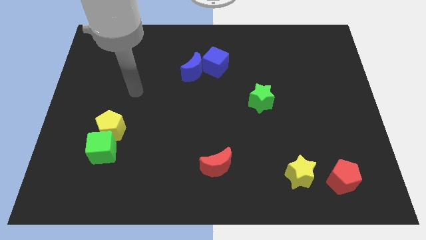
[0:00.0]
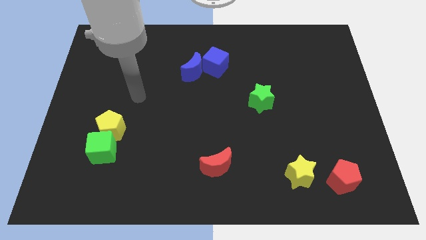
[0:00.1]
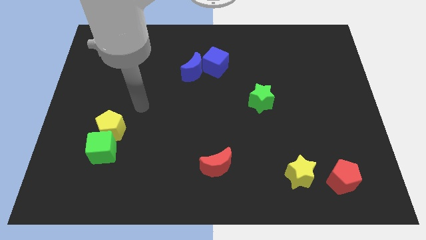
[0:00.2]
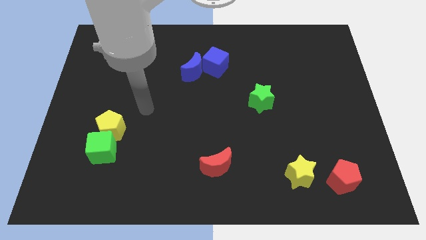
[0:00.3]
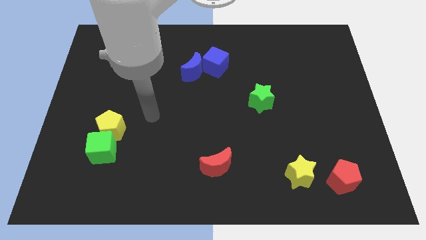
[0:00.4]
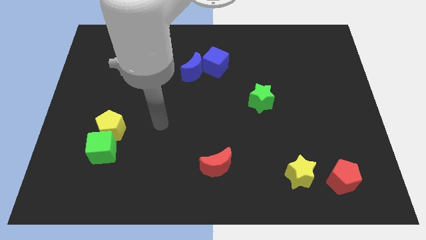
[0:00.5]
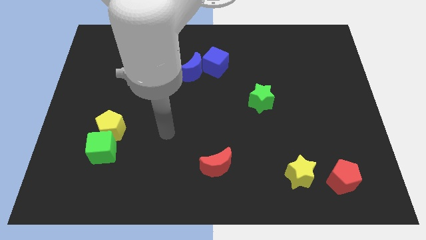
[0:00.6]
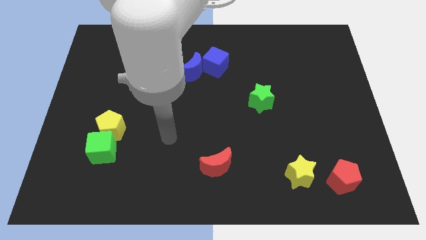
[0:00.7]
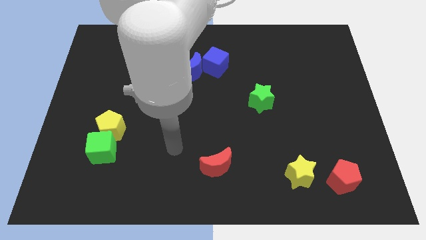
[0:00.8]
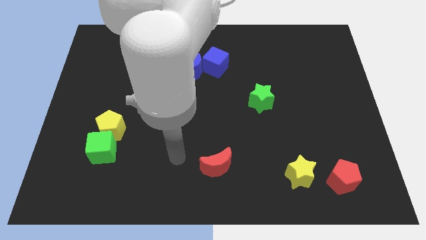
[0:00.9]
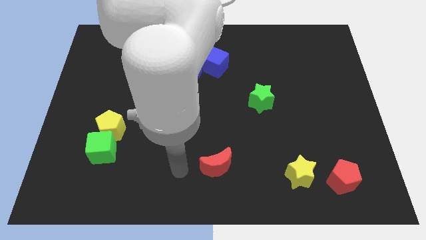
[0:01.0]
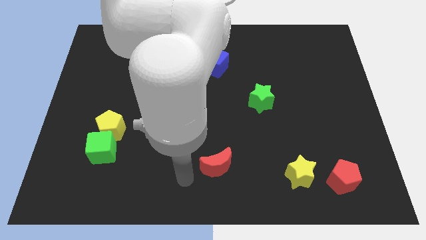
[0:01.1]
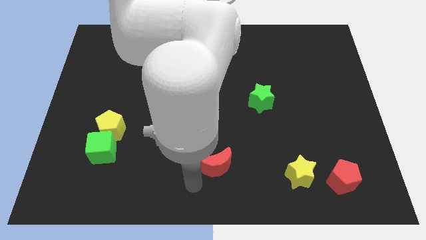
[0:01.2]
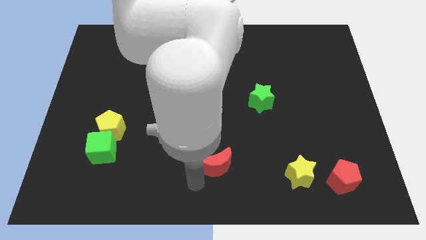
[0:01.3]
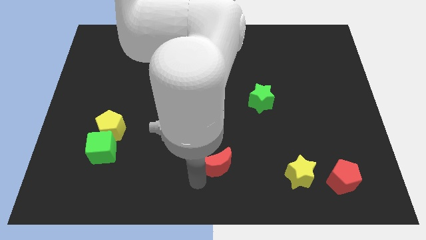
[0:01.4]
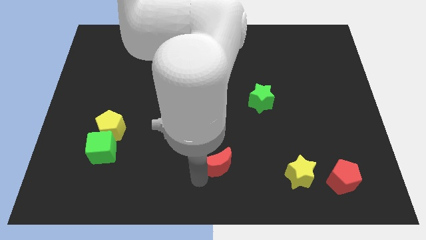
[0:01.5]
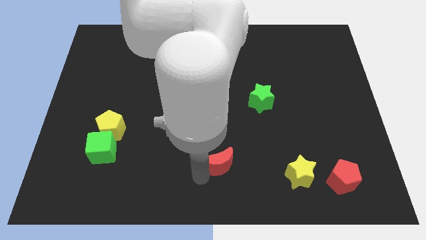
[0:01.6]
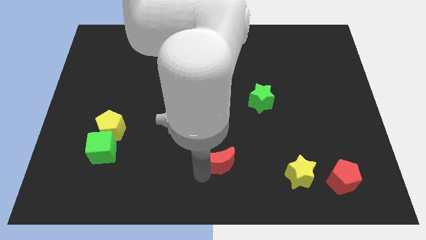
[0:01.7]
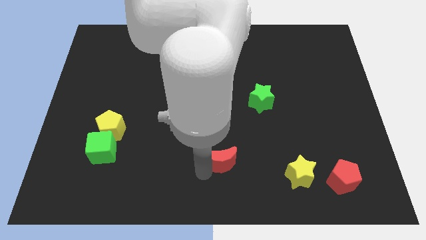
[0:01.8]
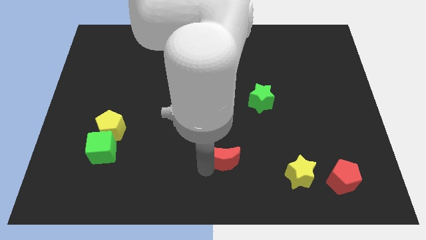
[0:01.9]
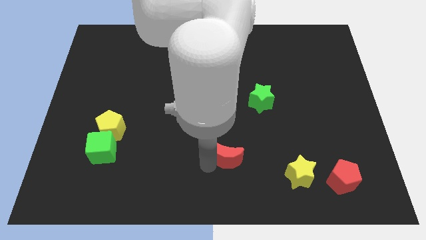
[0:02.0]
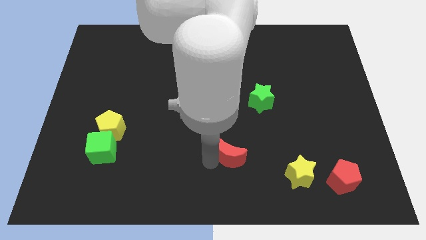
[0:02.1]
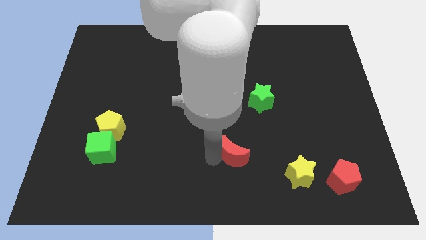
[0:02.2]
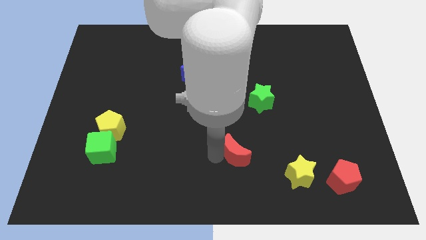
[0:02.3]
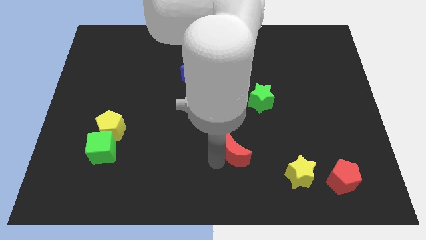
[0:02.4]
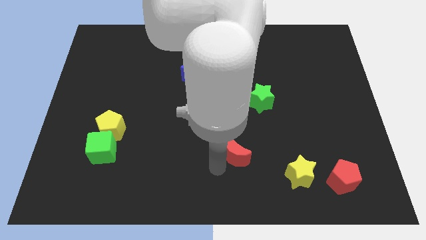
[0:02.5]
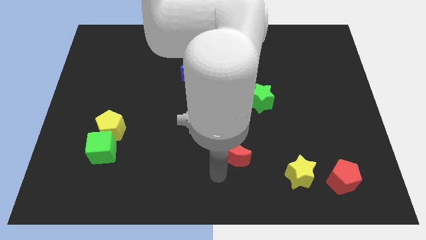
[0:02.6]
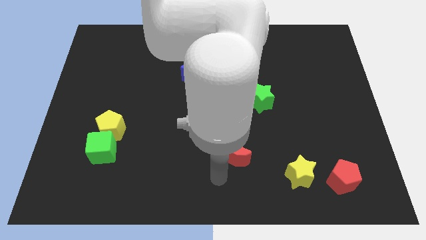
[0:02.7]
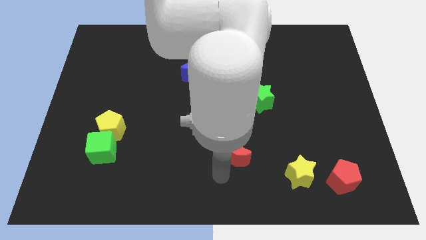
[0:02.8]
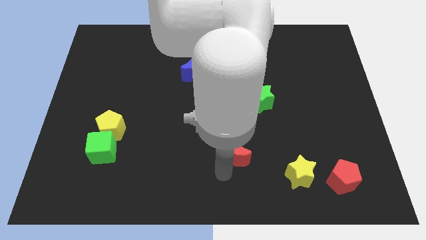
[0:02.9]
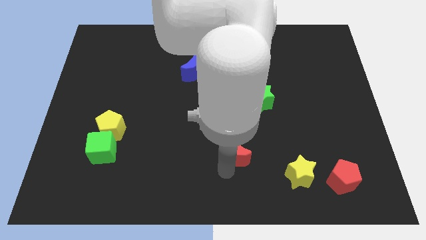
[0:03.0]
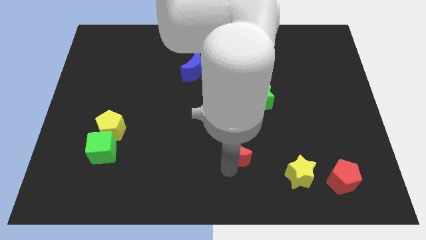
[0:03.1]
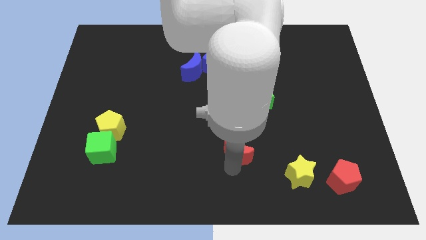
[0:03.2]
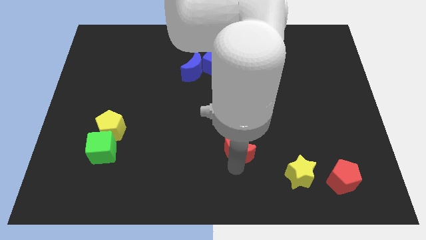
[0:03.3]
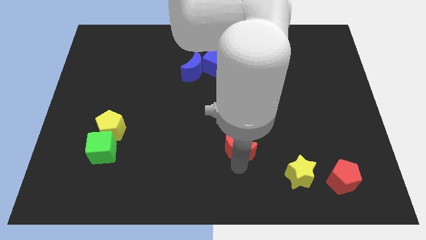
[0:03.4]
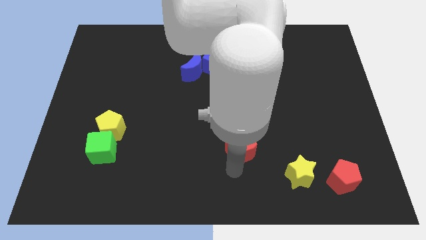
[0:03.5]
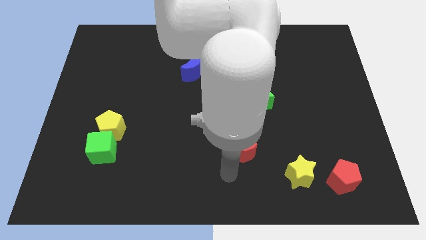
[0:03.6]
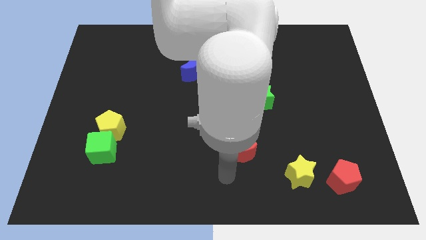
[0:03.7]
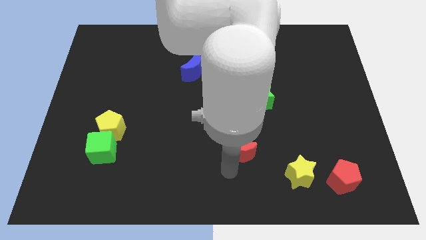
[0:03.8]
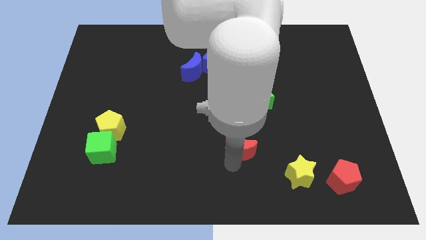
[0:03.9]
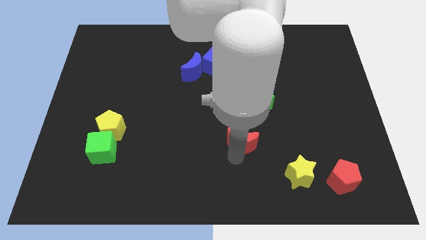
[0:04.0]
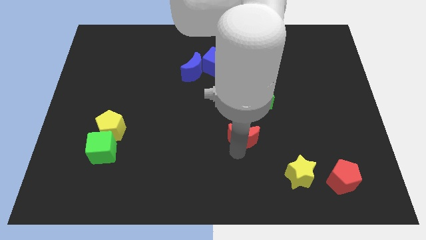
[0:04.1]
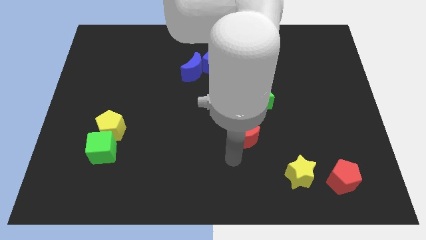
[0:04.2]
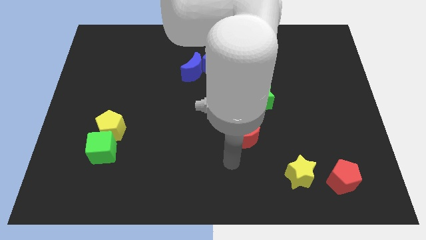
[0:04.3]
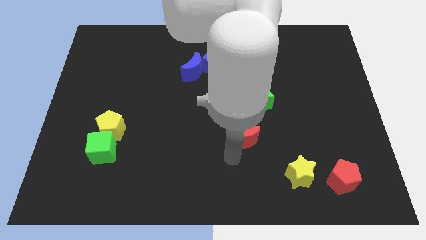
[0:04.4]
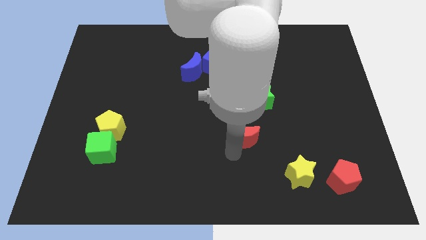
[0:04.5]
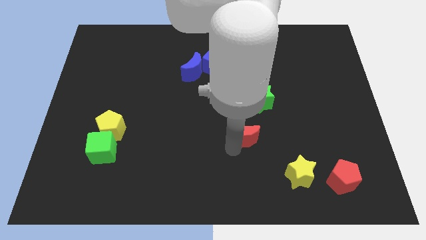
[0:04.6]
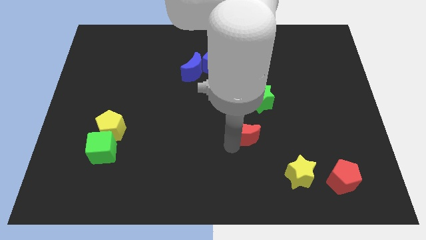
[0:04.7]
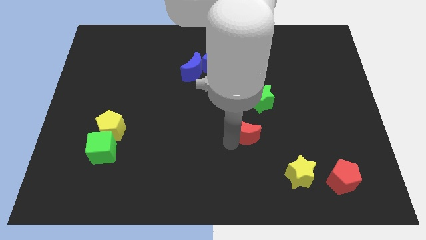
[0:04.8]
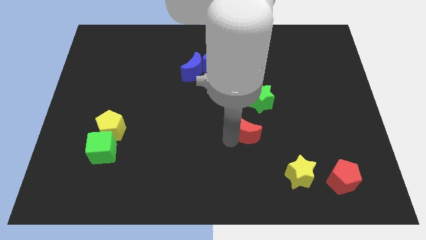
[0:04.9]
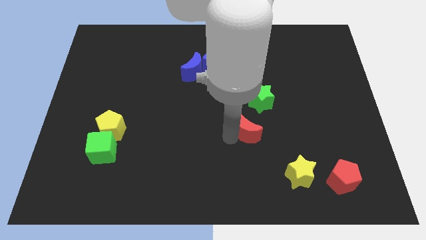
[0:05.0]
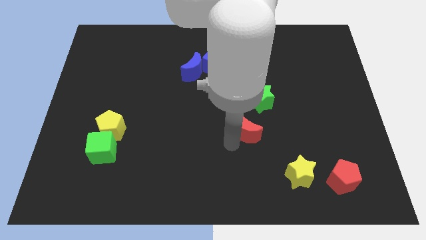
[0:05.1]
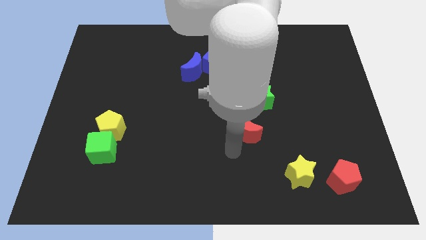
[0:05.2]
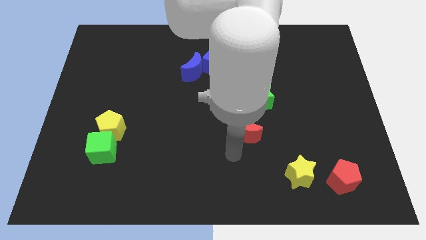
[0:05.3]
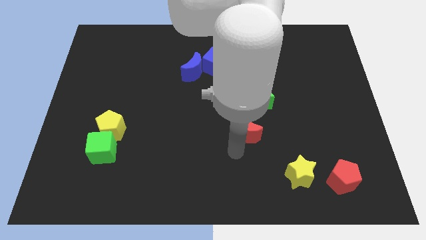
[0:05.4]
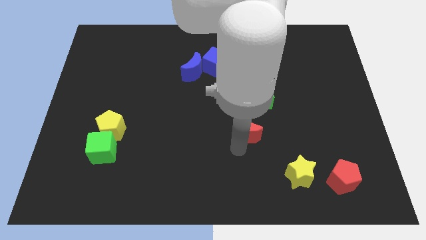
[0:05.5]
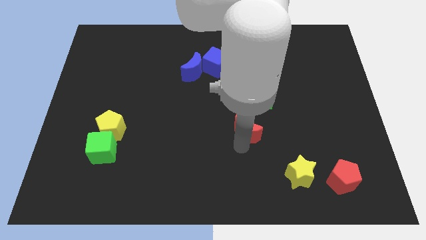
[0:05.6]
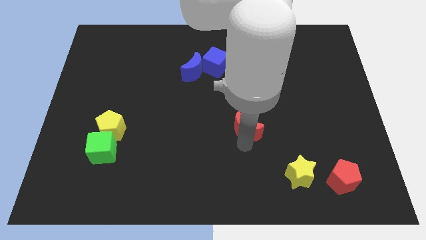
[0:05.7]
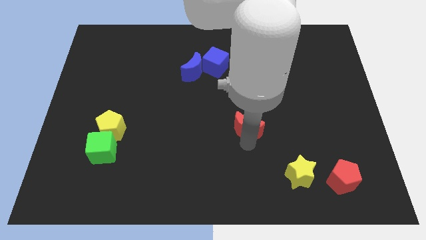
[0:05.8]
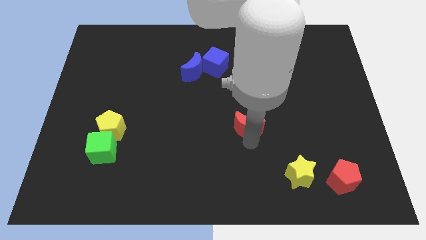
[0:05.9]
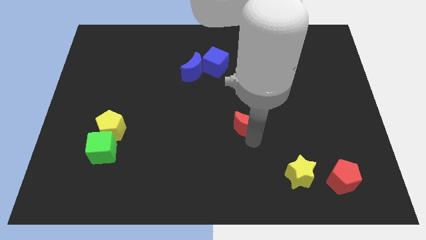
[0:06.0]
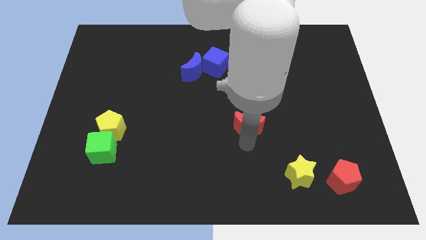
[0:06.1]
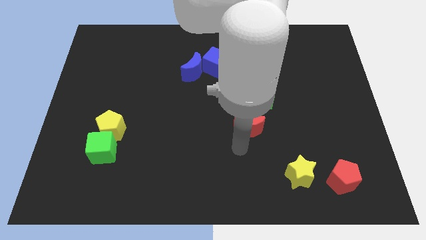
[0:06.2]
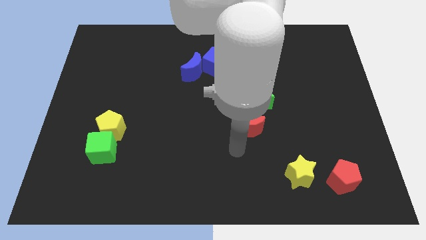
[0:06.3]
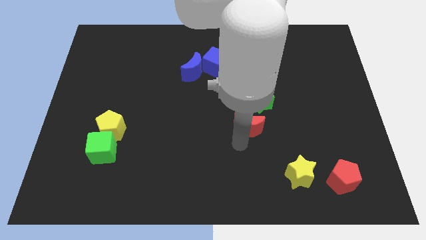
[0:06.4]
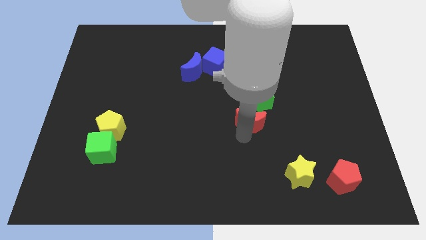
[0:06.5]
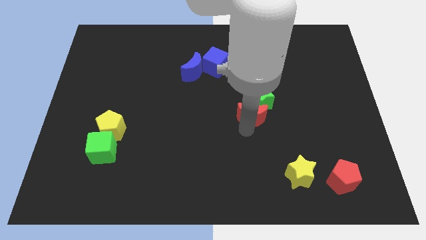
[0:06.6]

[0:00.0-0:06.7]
move the red moon next to the green star

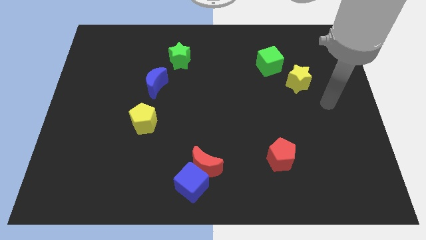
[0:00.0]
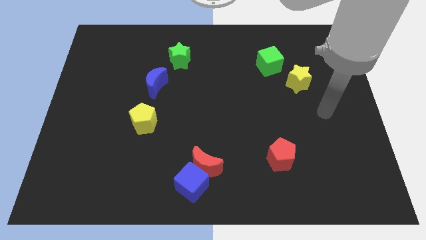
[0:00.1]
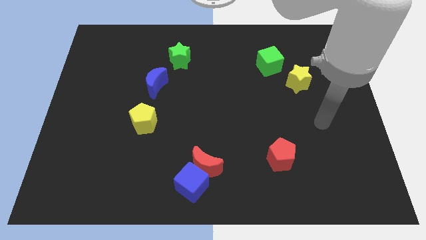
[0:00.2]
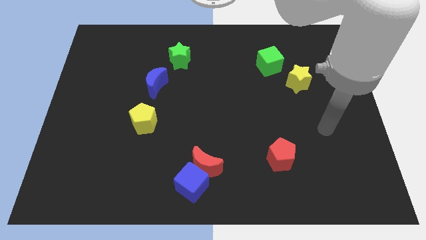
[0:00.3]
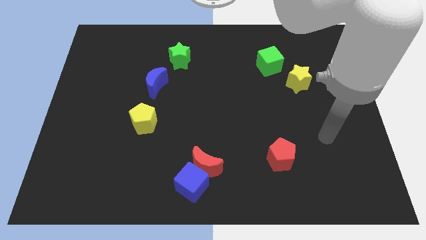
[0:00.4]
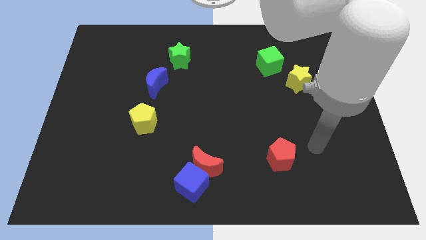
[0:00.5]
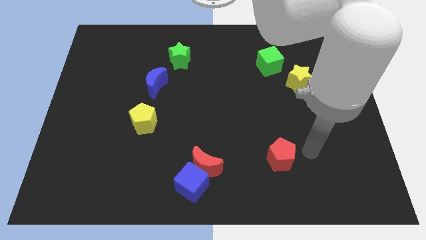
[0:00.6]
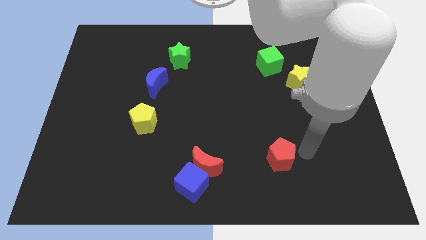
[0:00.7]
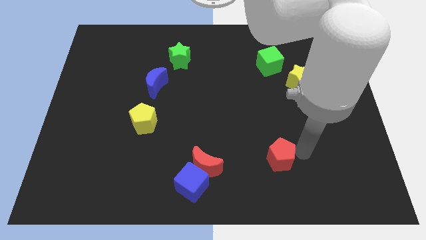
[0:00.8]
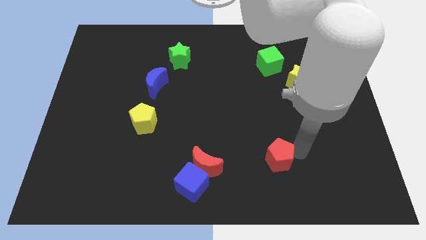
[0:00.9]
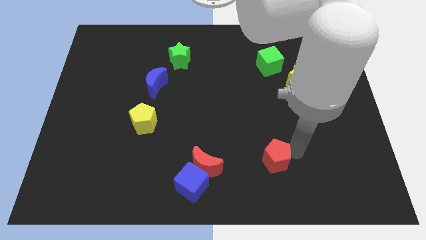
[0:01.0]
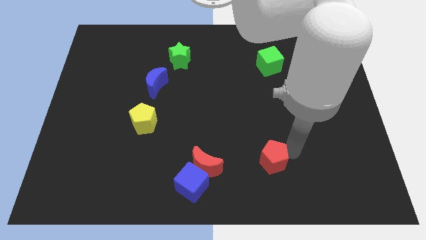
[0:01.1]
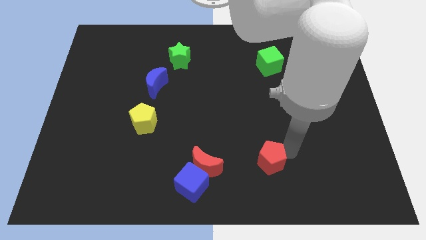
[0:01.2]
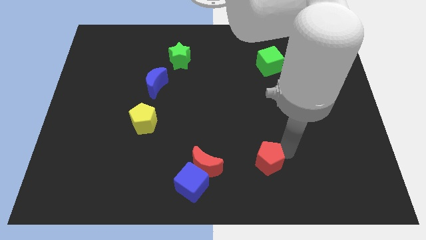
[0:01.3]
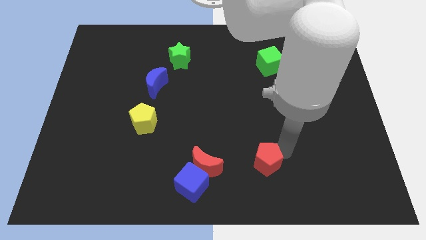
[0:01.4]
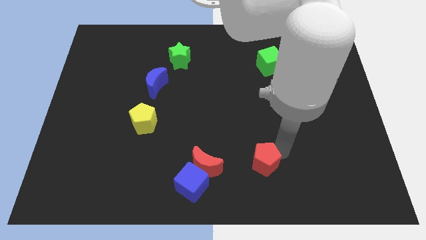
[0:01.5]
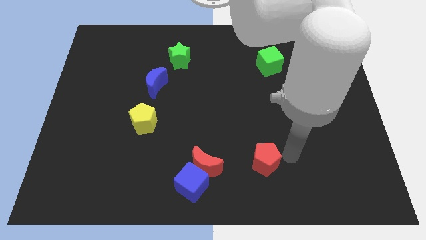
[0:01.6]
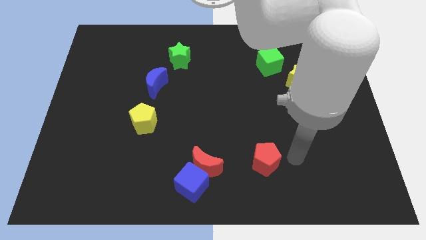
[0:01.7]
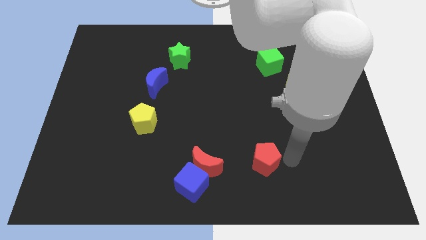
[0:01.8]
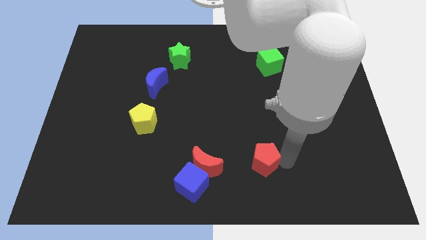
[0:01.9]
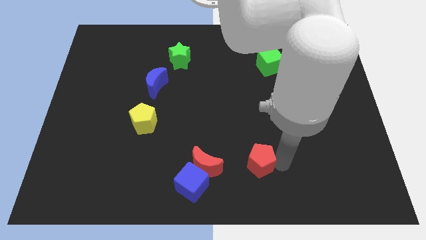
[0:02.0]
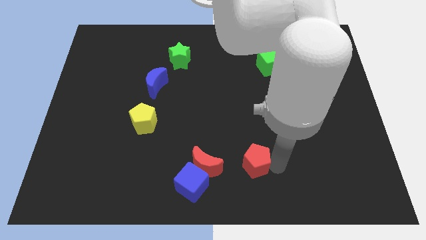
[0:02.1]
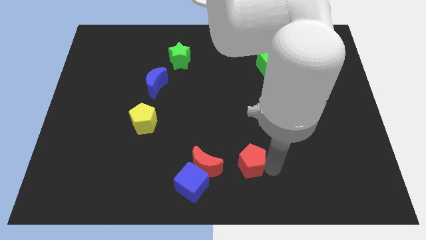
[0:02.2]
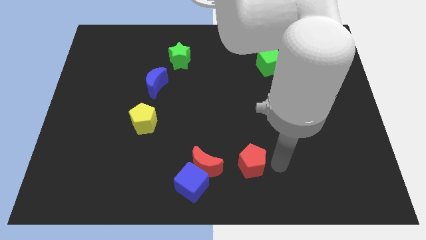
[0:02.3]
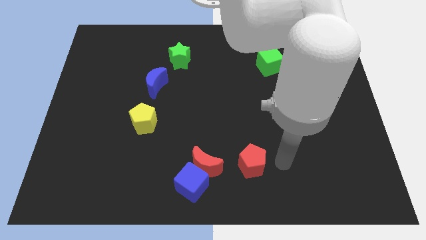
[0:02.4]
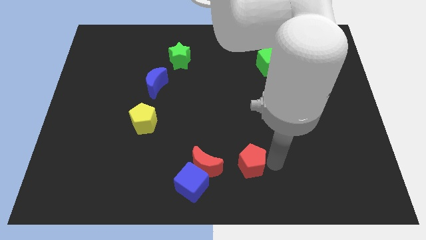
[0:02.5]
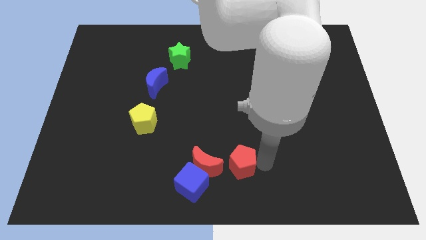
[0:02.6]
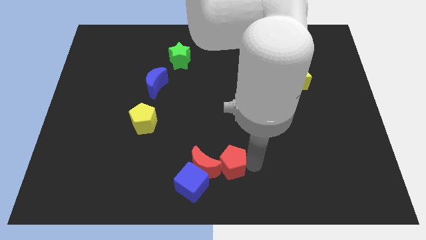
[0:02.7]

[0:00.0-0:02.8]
put the red pentagon close to the red moon
